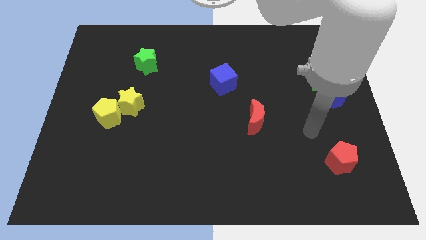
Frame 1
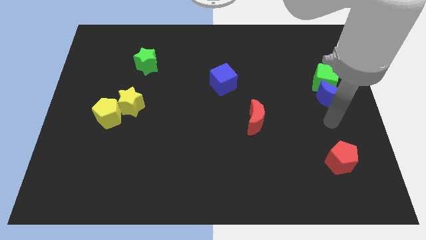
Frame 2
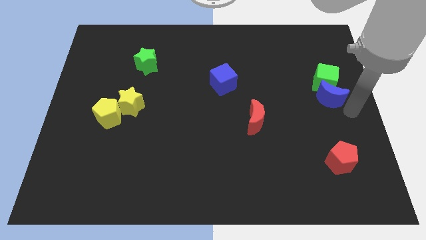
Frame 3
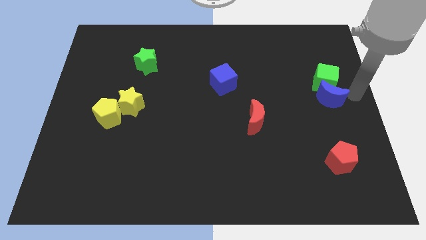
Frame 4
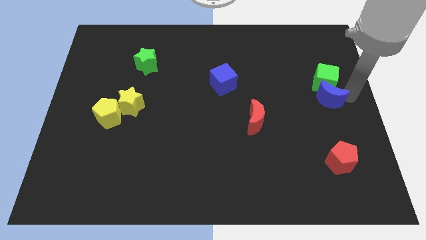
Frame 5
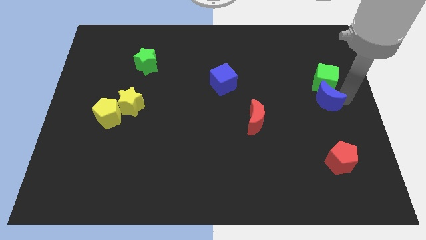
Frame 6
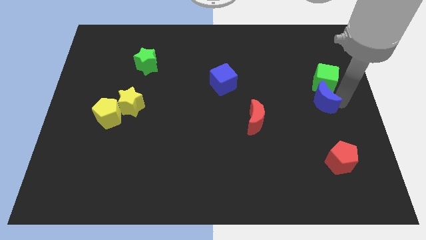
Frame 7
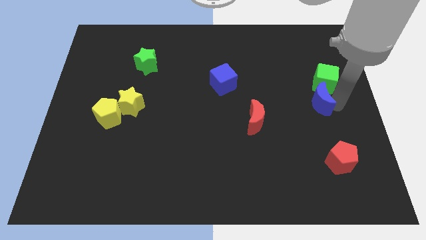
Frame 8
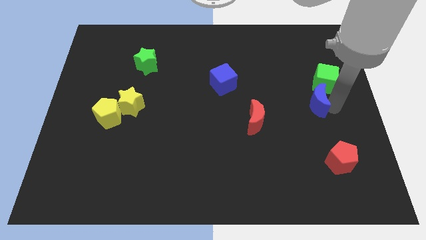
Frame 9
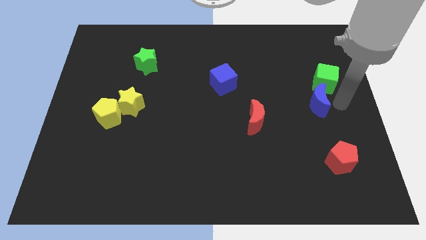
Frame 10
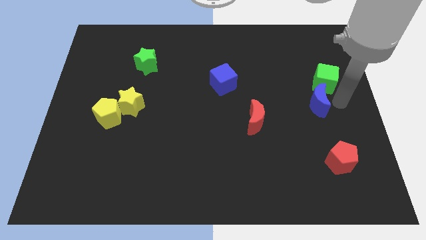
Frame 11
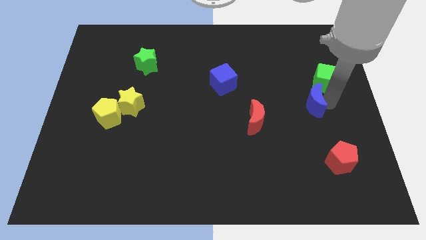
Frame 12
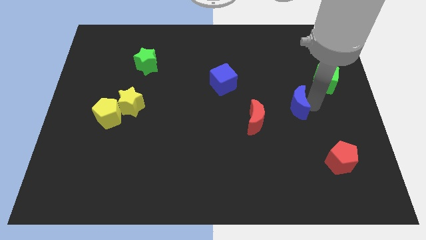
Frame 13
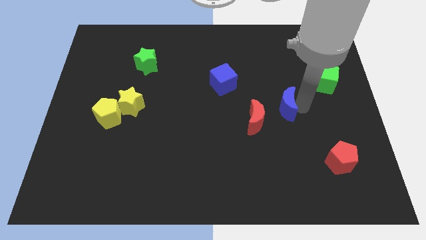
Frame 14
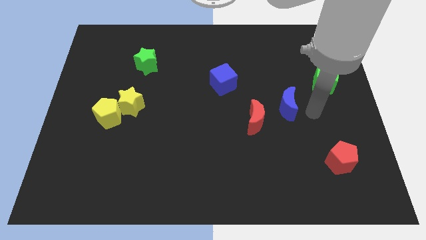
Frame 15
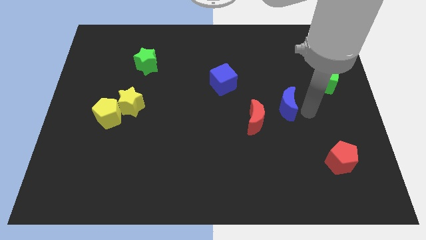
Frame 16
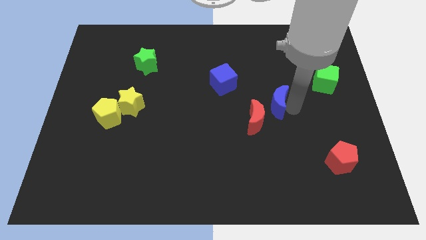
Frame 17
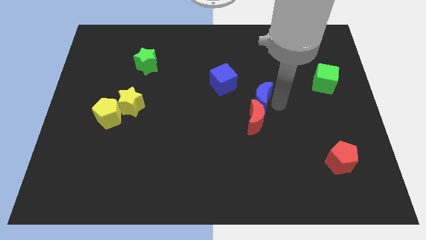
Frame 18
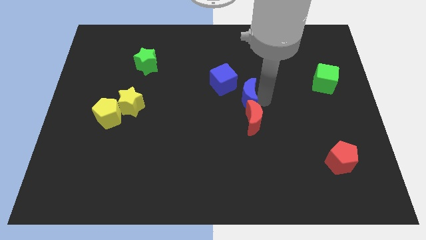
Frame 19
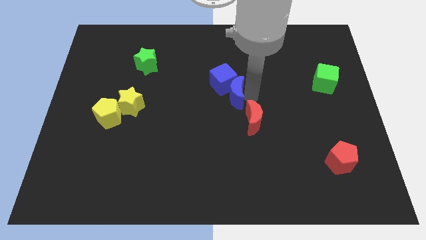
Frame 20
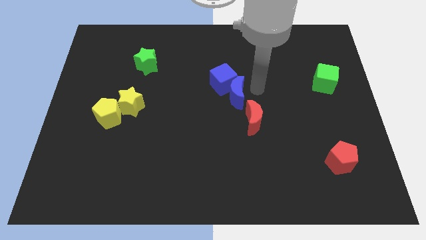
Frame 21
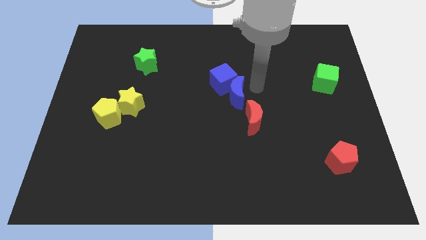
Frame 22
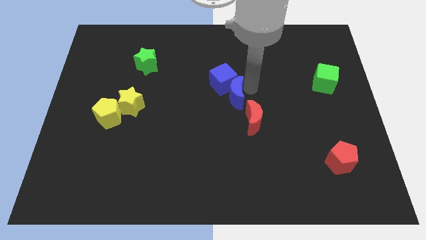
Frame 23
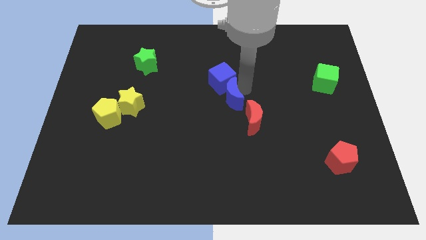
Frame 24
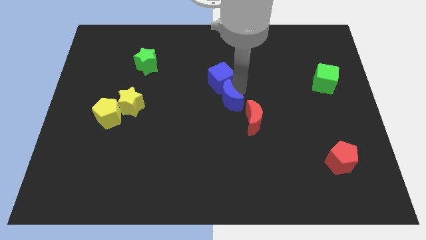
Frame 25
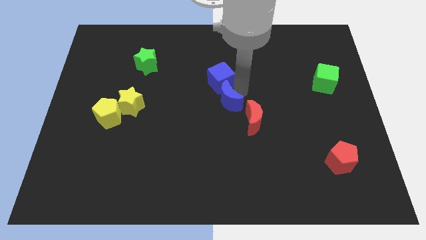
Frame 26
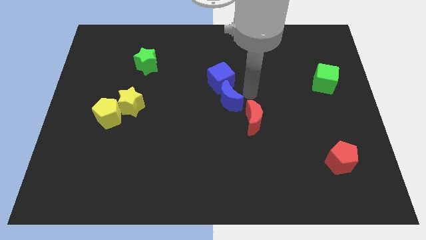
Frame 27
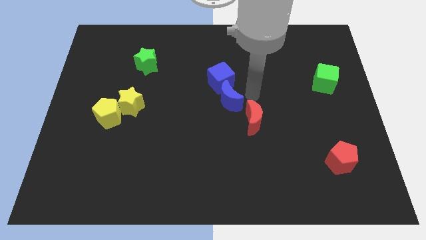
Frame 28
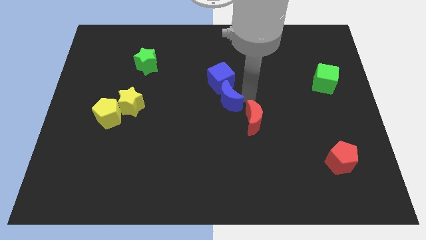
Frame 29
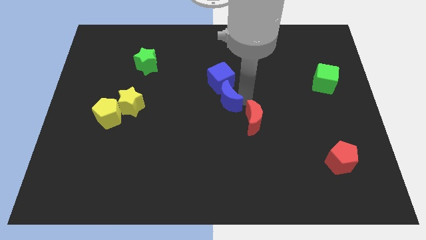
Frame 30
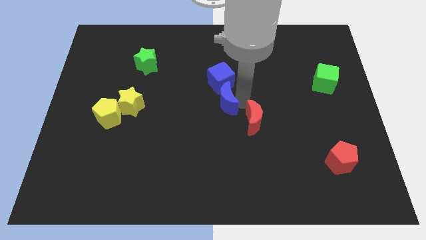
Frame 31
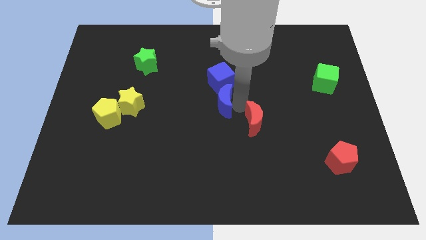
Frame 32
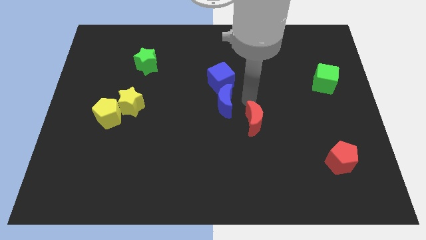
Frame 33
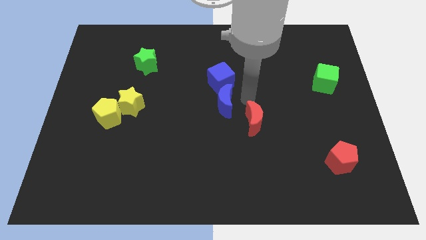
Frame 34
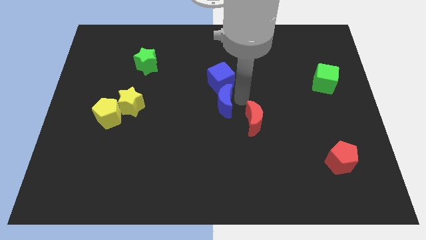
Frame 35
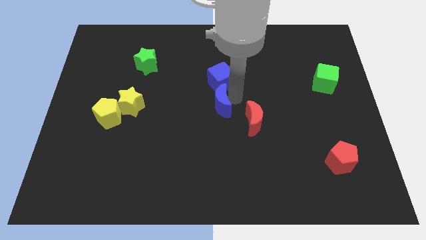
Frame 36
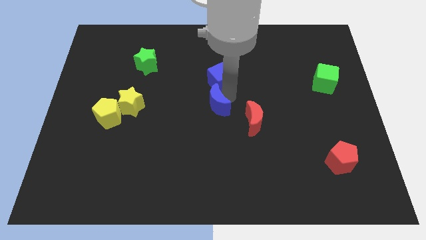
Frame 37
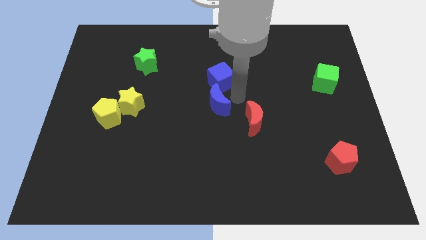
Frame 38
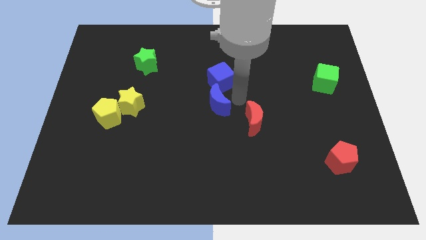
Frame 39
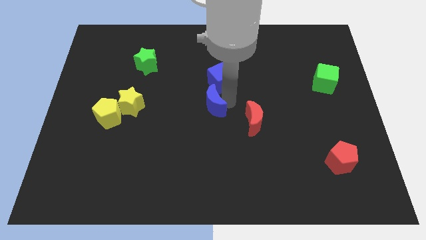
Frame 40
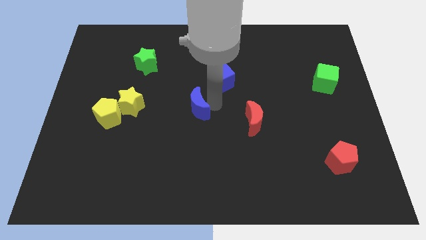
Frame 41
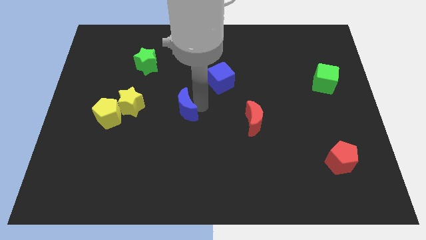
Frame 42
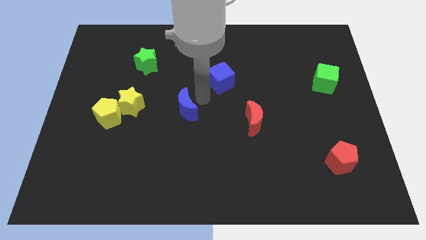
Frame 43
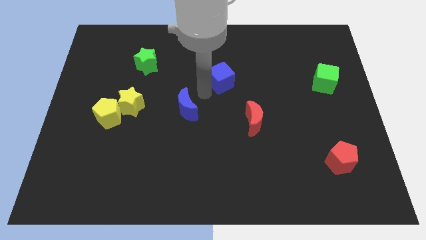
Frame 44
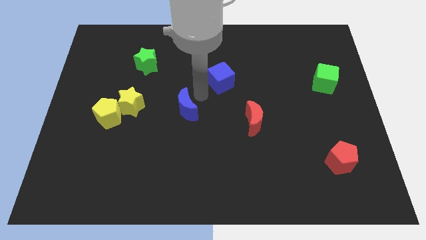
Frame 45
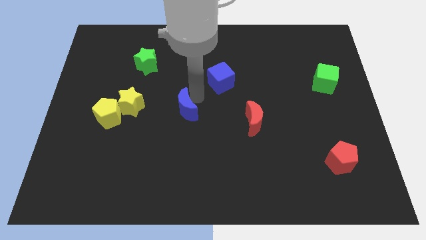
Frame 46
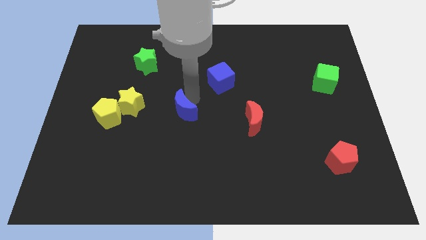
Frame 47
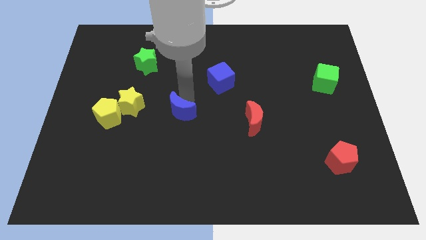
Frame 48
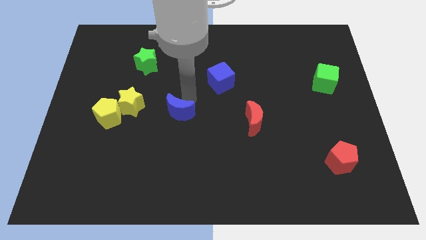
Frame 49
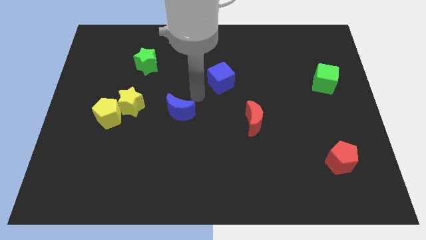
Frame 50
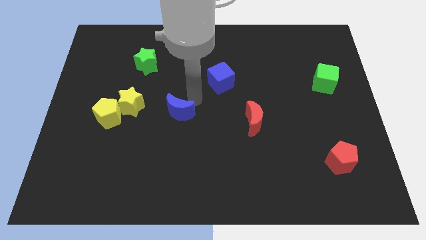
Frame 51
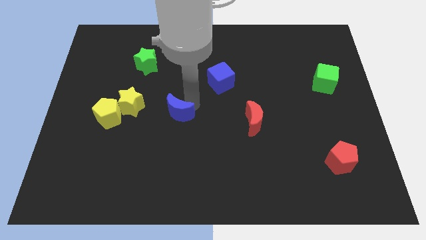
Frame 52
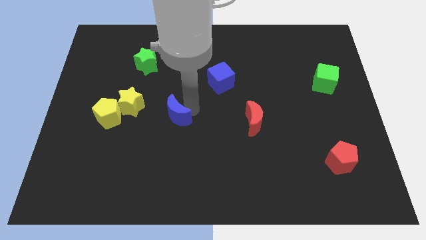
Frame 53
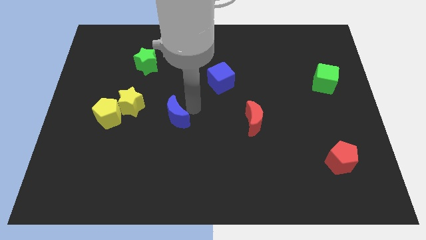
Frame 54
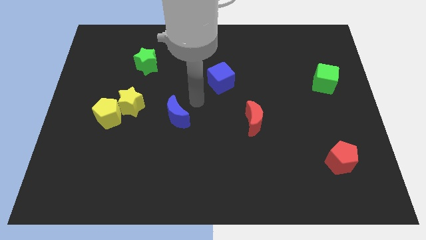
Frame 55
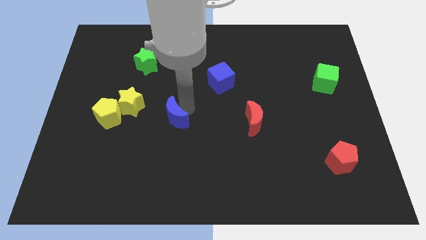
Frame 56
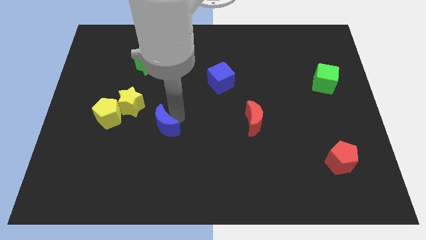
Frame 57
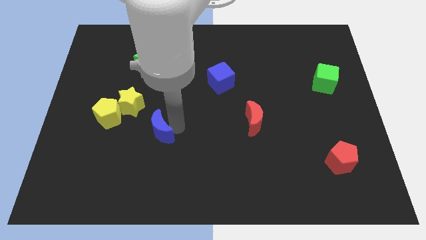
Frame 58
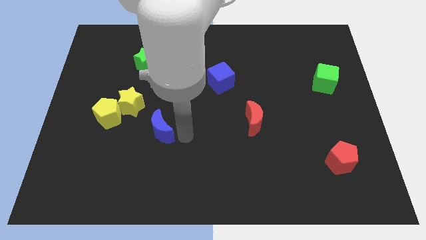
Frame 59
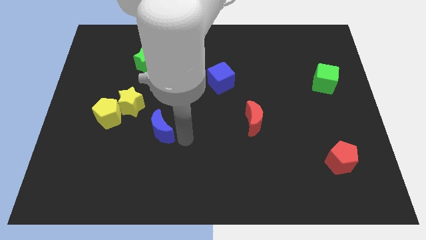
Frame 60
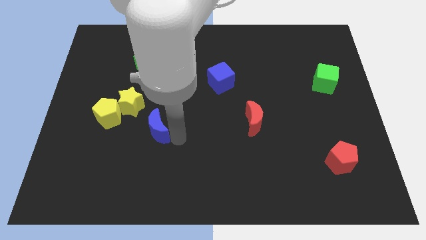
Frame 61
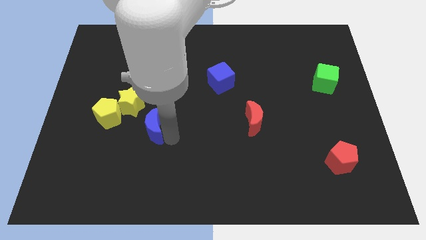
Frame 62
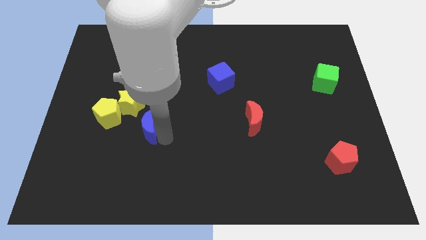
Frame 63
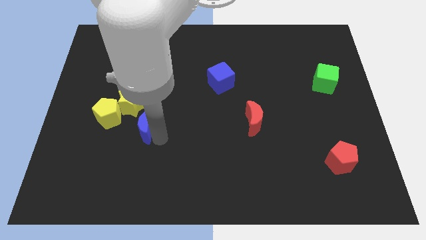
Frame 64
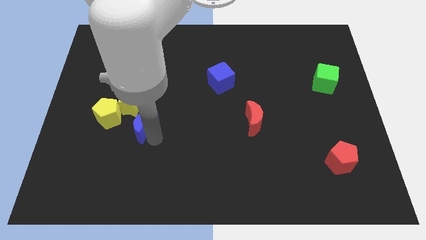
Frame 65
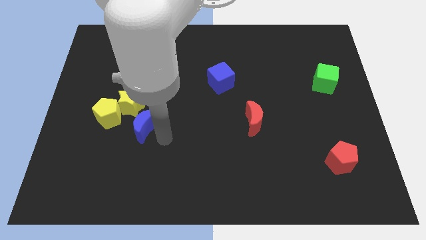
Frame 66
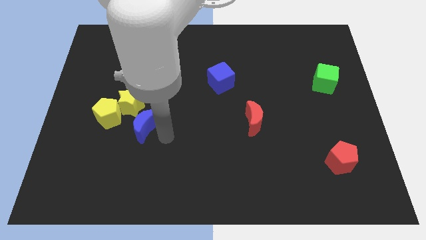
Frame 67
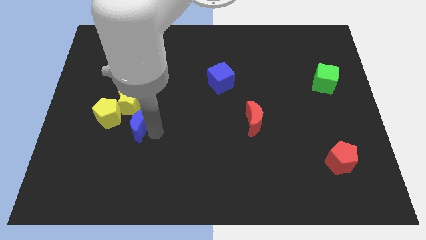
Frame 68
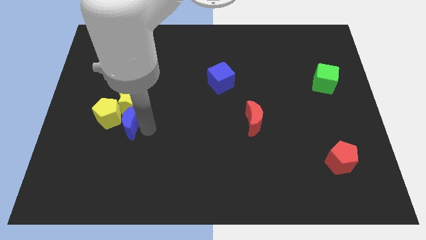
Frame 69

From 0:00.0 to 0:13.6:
move the blue moon towards the yellow pentagon

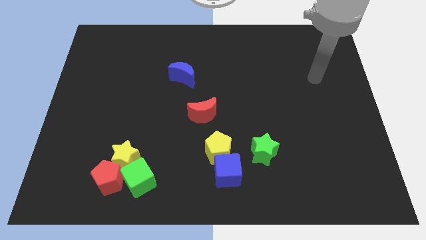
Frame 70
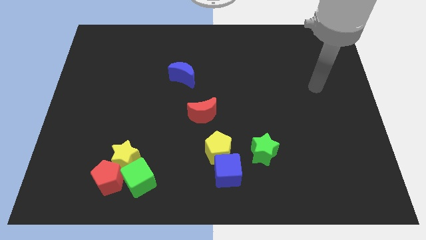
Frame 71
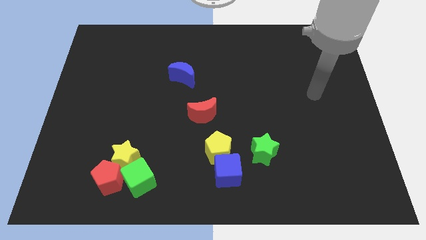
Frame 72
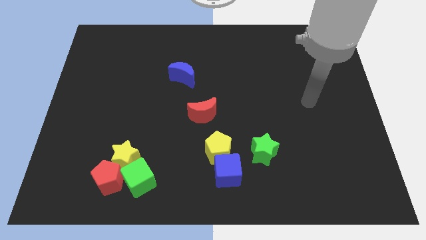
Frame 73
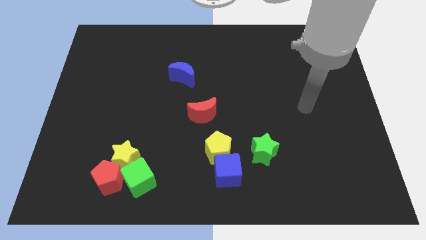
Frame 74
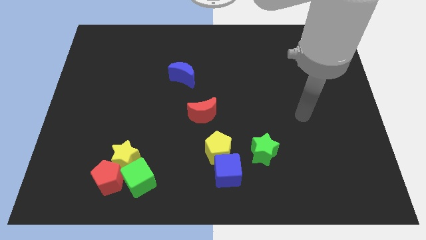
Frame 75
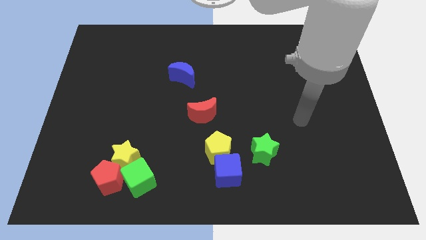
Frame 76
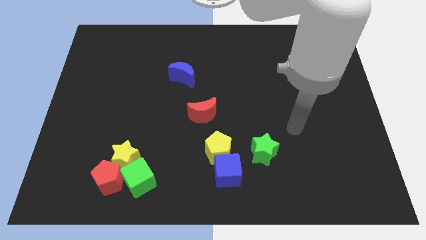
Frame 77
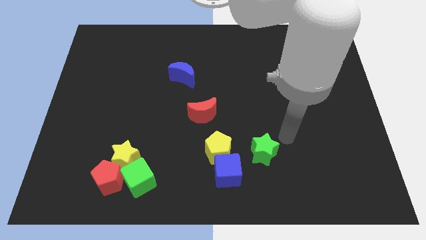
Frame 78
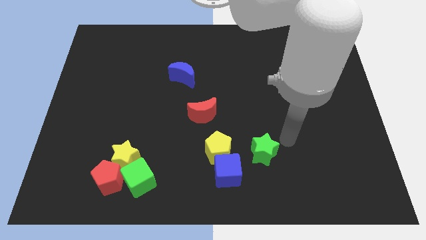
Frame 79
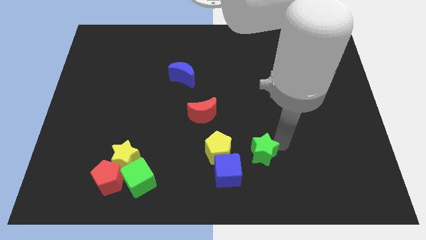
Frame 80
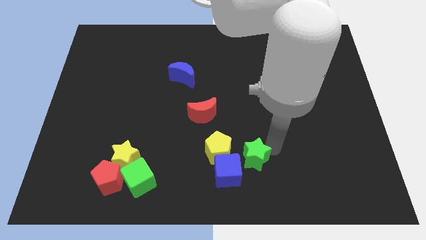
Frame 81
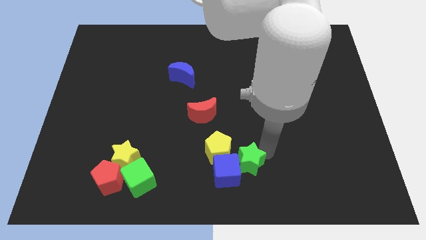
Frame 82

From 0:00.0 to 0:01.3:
move the green star to the blue cube
